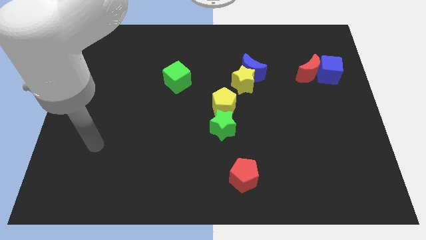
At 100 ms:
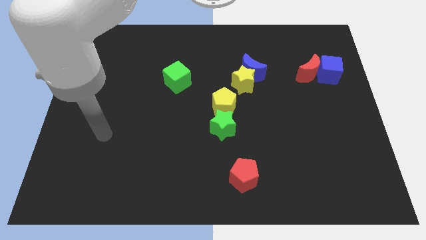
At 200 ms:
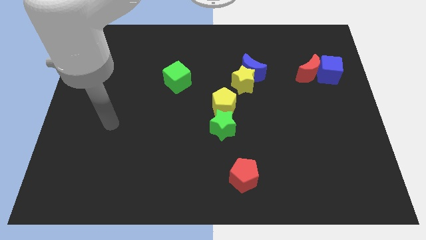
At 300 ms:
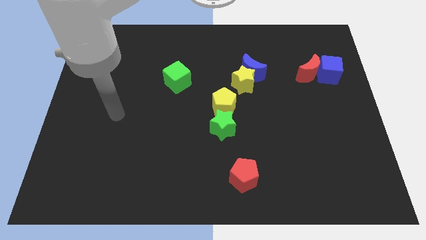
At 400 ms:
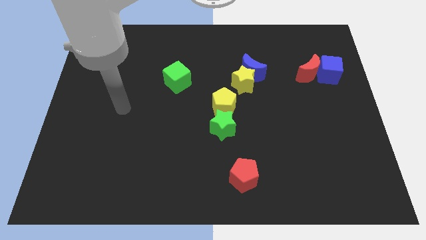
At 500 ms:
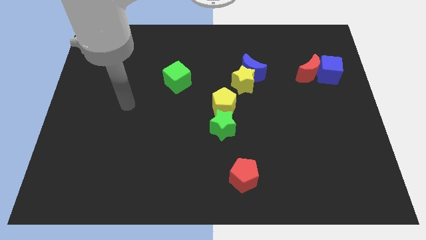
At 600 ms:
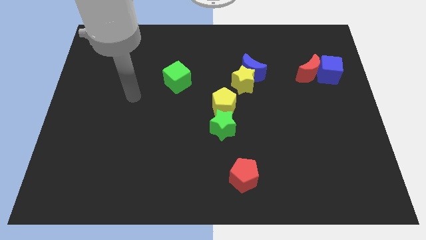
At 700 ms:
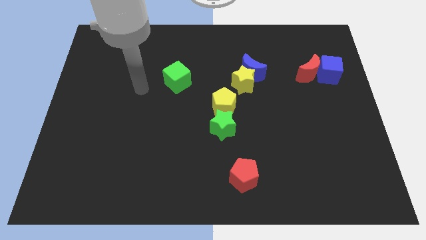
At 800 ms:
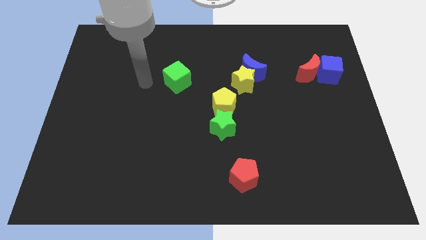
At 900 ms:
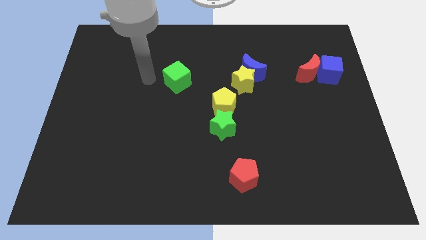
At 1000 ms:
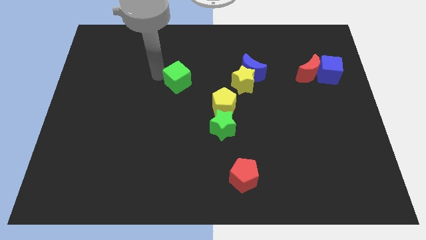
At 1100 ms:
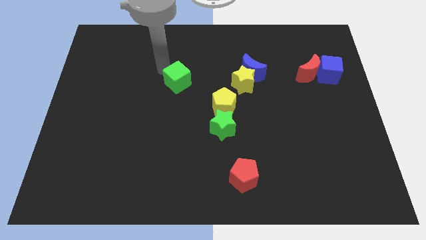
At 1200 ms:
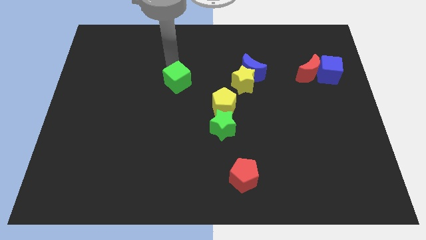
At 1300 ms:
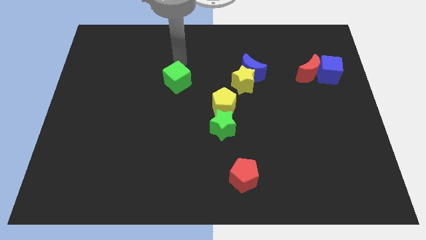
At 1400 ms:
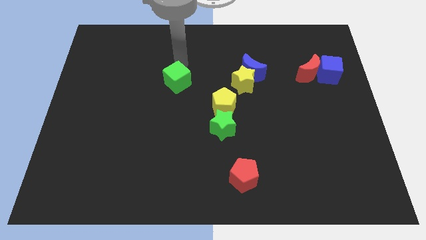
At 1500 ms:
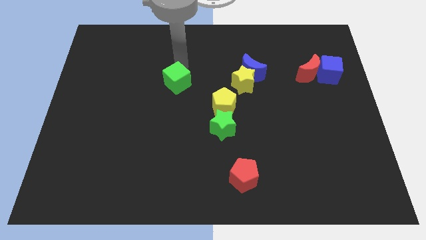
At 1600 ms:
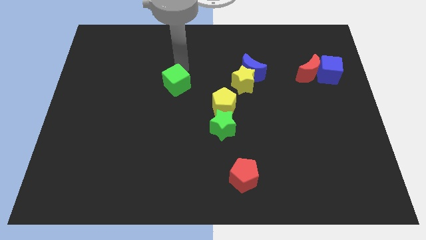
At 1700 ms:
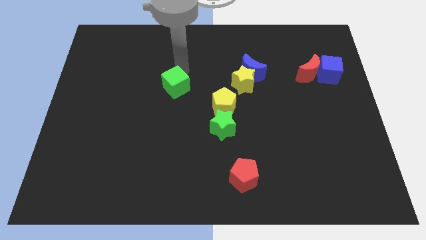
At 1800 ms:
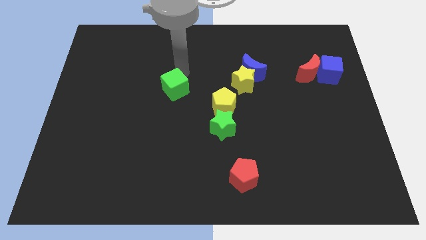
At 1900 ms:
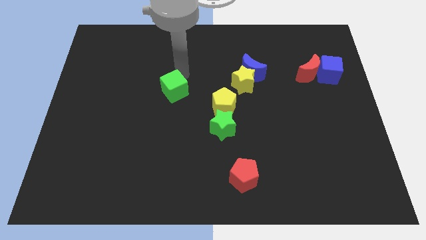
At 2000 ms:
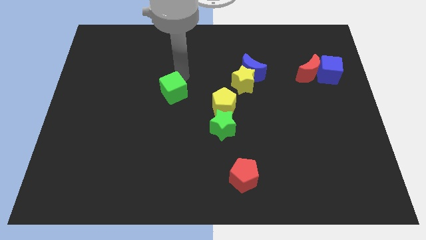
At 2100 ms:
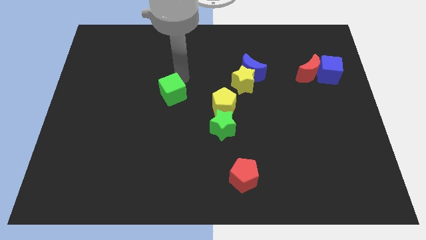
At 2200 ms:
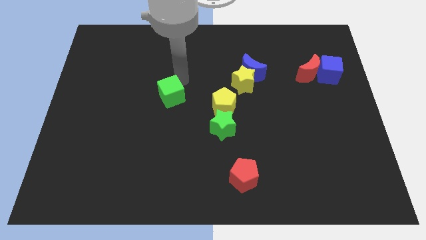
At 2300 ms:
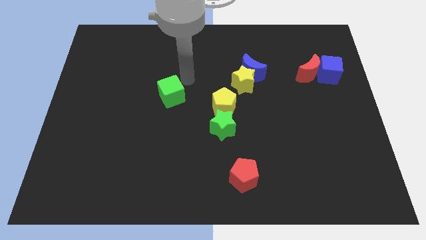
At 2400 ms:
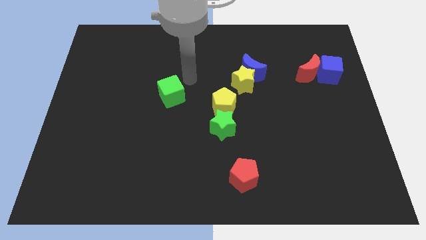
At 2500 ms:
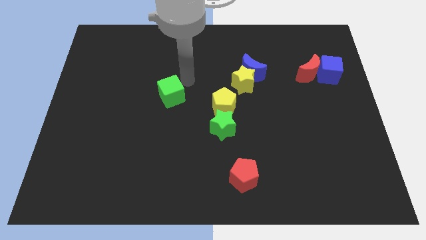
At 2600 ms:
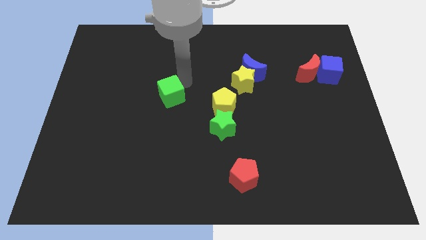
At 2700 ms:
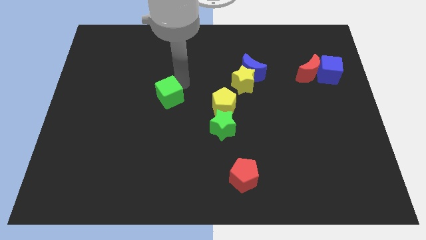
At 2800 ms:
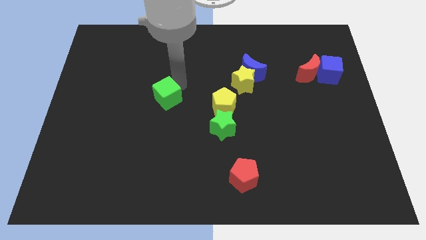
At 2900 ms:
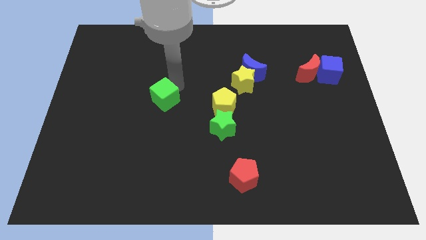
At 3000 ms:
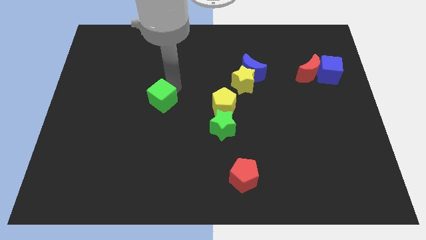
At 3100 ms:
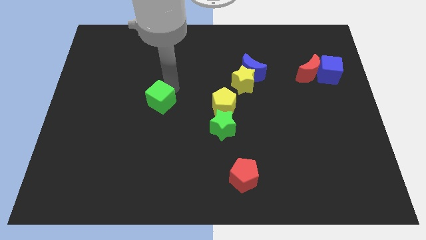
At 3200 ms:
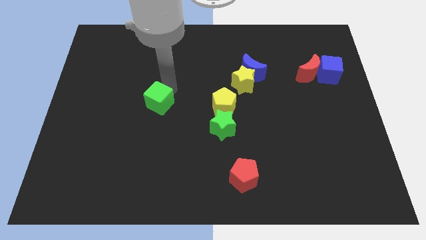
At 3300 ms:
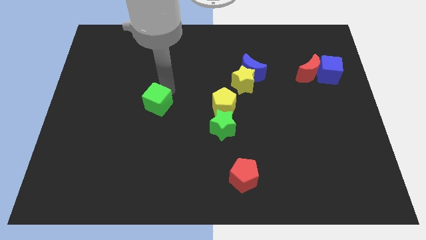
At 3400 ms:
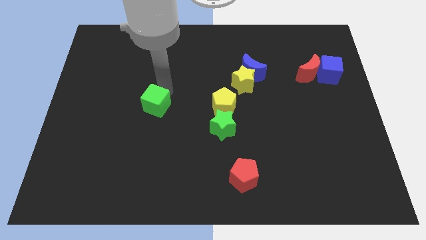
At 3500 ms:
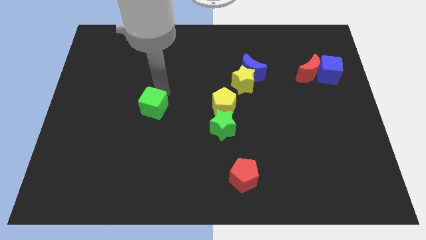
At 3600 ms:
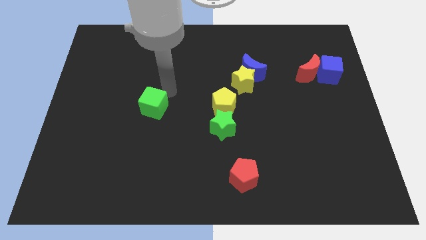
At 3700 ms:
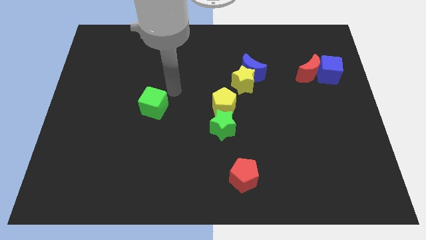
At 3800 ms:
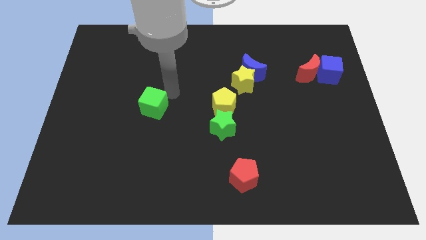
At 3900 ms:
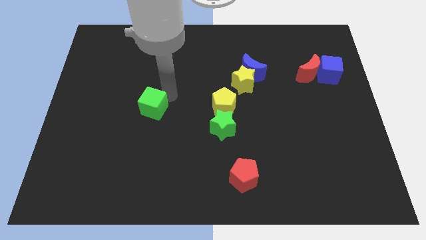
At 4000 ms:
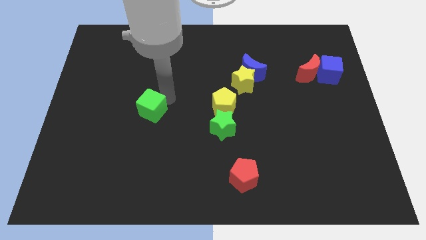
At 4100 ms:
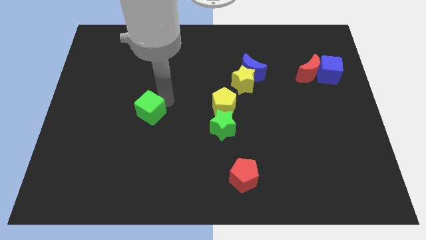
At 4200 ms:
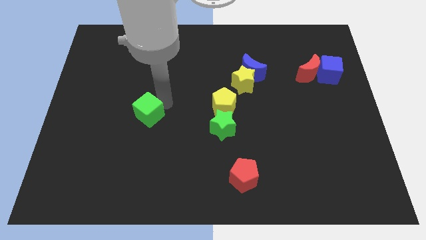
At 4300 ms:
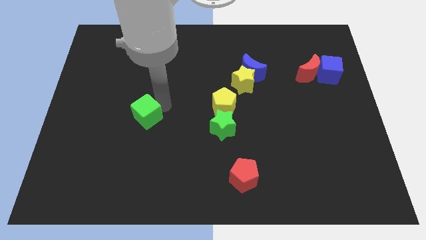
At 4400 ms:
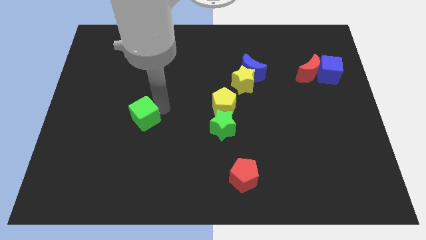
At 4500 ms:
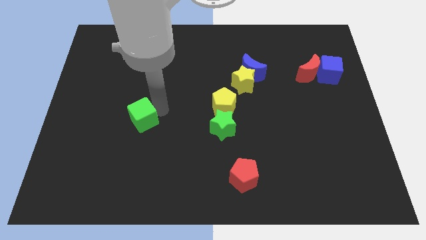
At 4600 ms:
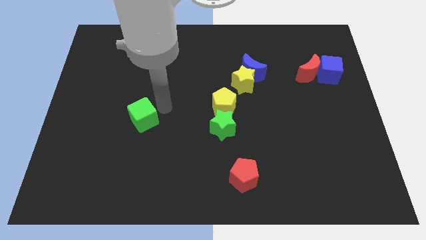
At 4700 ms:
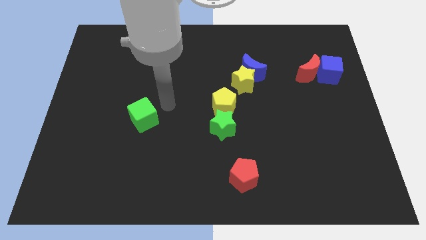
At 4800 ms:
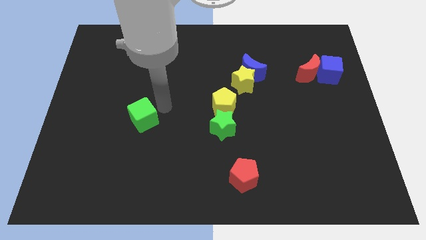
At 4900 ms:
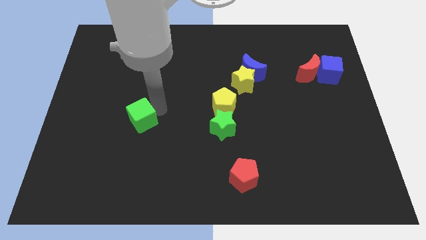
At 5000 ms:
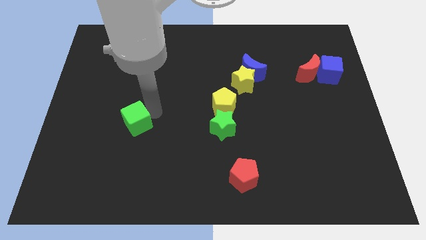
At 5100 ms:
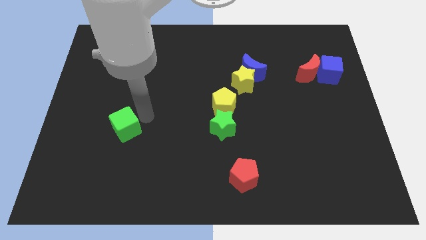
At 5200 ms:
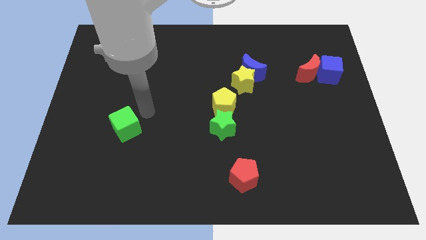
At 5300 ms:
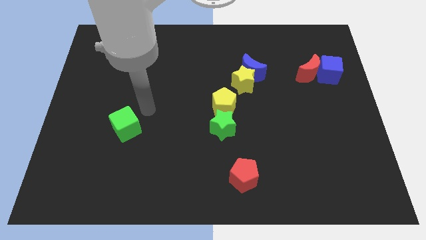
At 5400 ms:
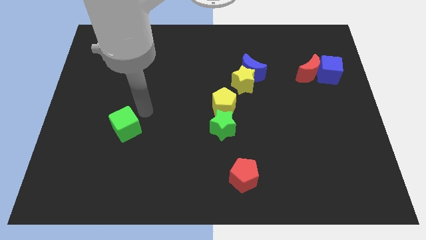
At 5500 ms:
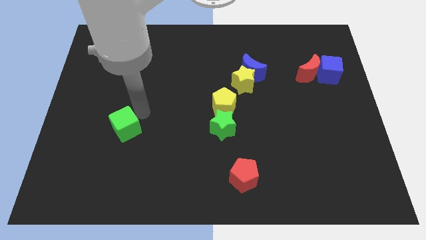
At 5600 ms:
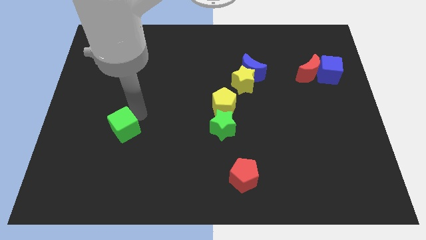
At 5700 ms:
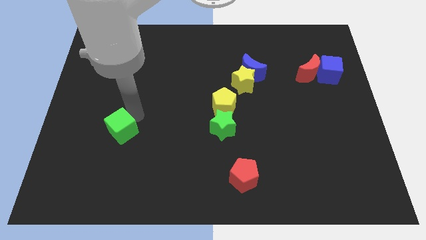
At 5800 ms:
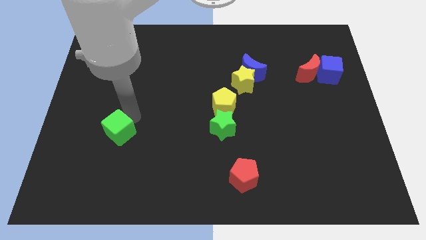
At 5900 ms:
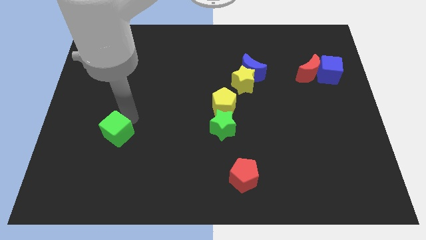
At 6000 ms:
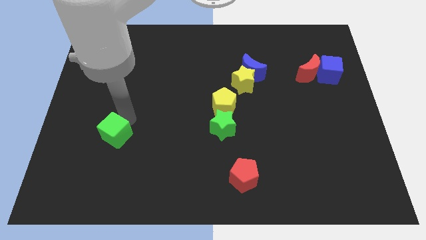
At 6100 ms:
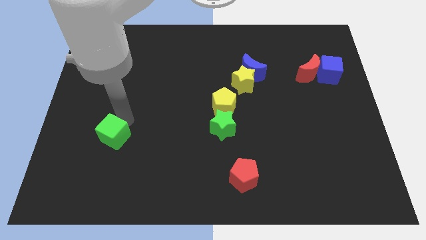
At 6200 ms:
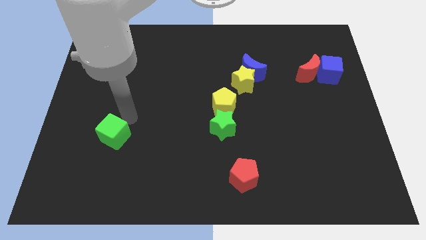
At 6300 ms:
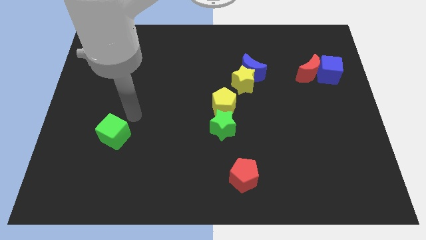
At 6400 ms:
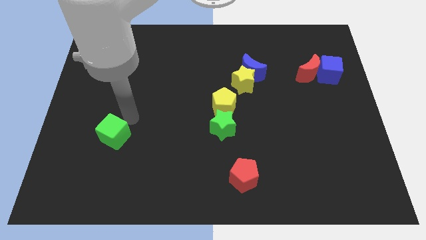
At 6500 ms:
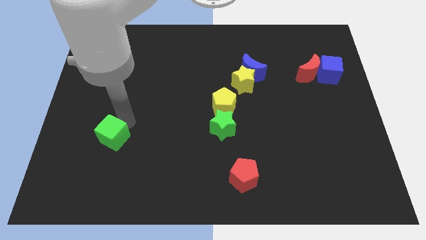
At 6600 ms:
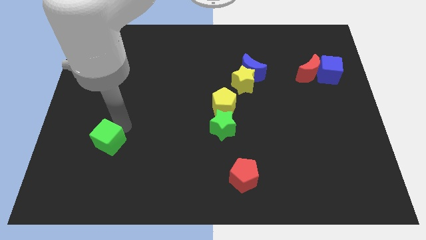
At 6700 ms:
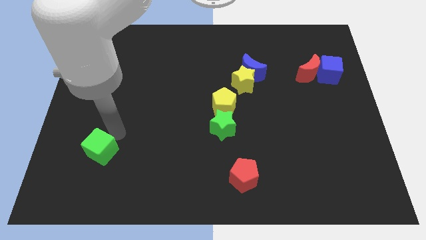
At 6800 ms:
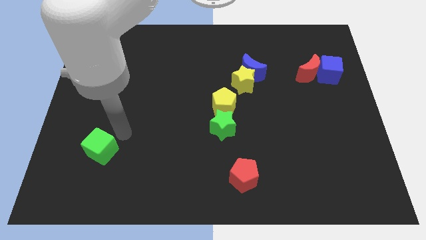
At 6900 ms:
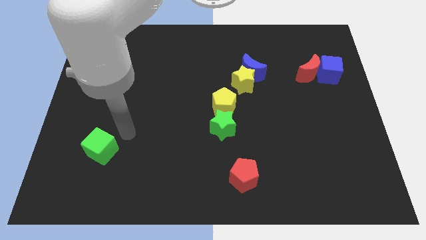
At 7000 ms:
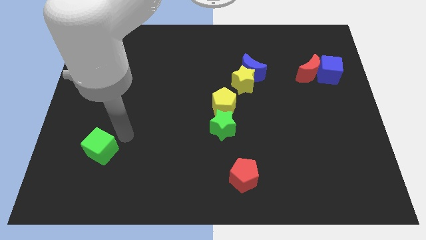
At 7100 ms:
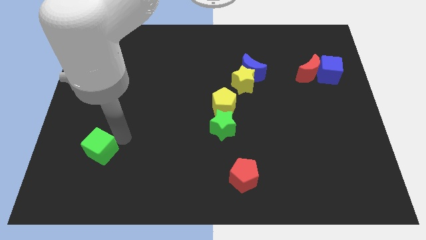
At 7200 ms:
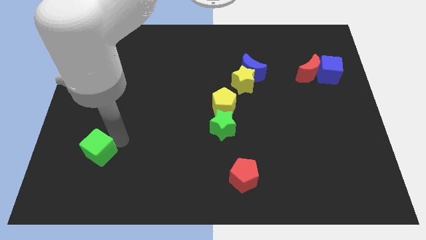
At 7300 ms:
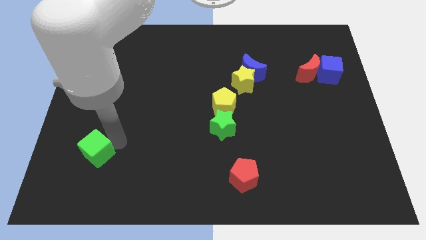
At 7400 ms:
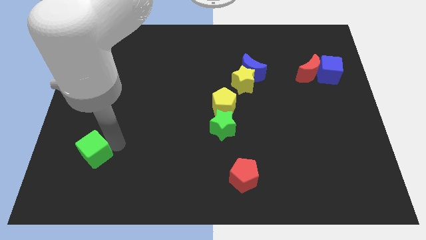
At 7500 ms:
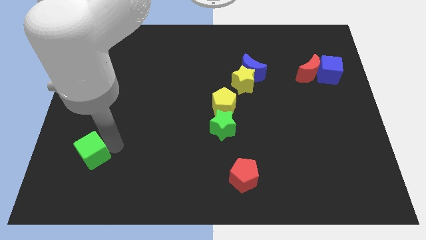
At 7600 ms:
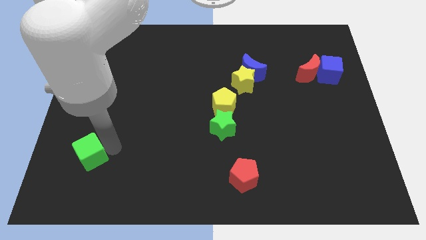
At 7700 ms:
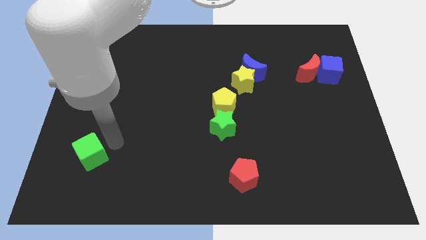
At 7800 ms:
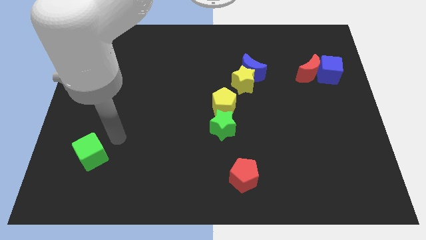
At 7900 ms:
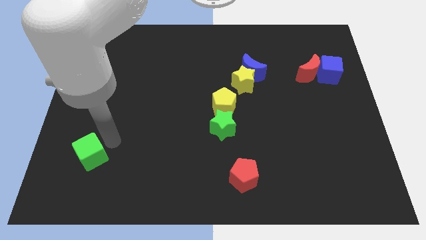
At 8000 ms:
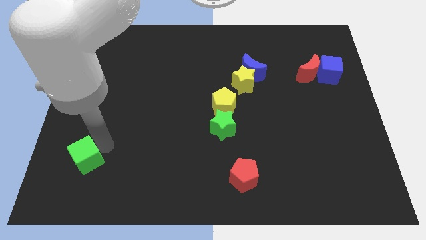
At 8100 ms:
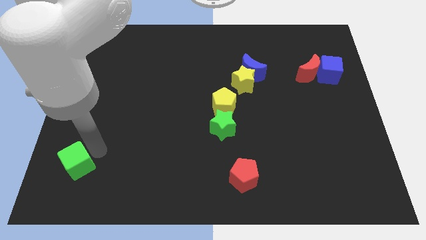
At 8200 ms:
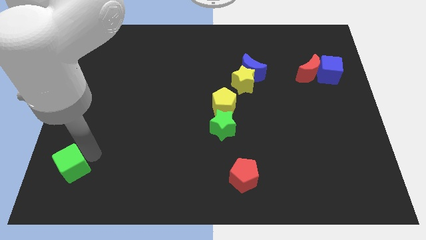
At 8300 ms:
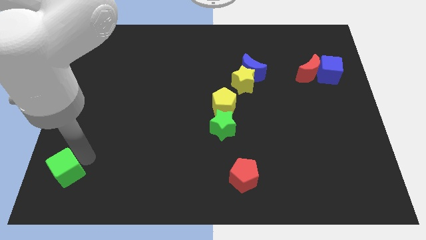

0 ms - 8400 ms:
push the green cube to the bottom left
